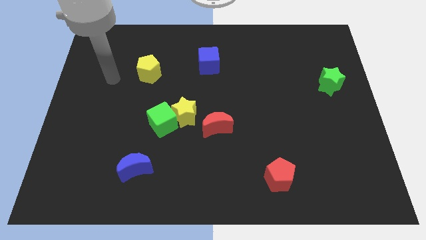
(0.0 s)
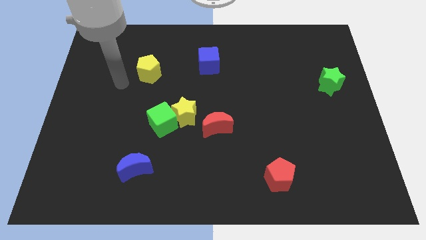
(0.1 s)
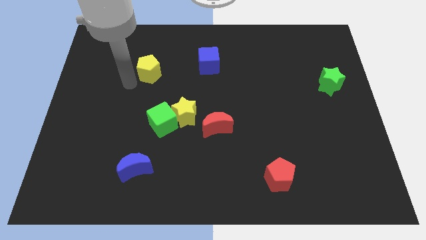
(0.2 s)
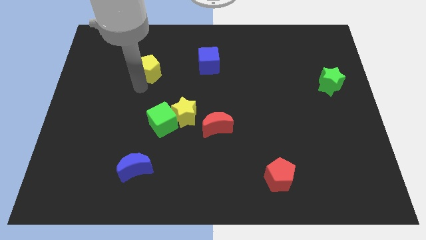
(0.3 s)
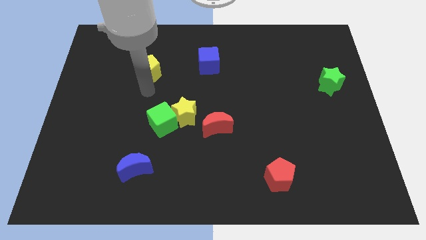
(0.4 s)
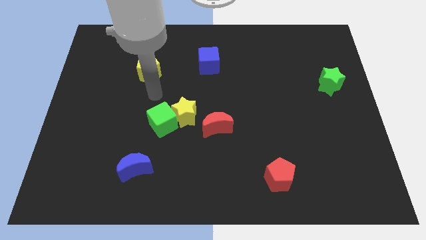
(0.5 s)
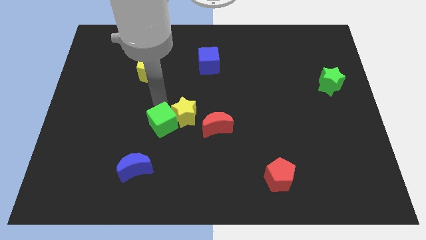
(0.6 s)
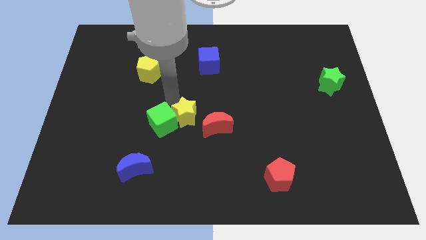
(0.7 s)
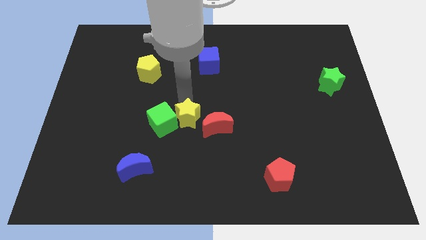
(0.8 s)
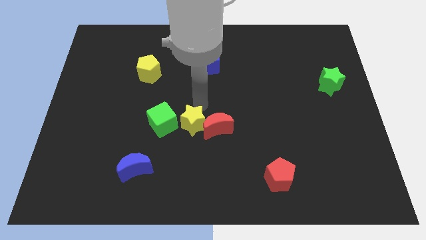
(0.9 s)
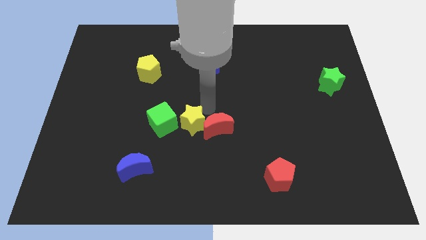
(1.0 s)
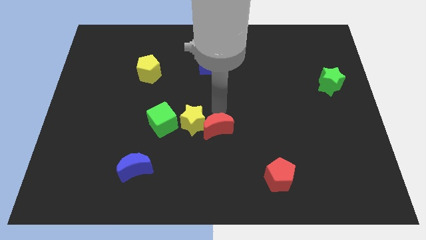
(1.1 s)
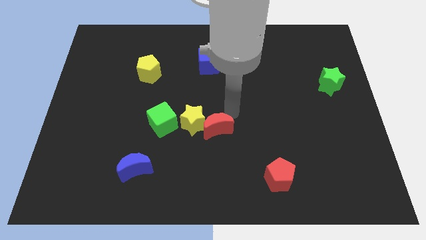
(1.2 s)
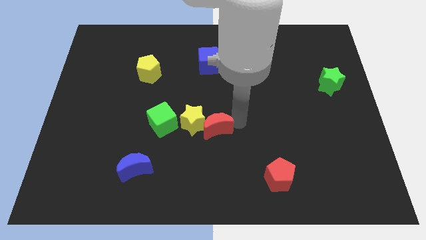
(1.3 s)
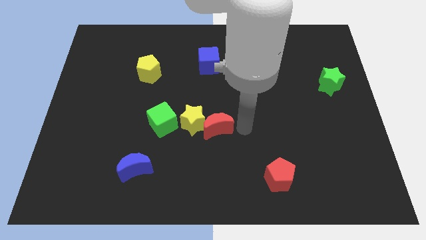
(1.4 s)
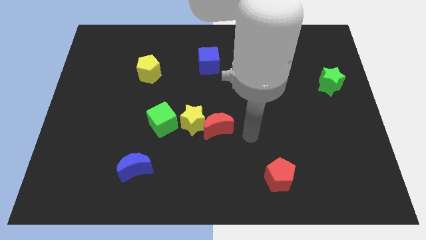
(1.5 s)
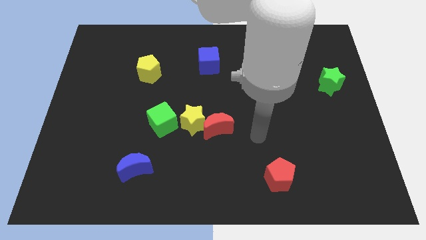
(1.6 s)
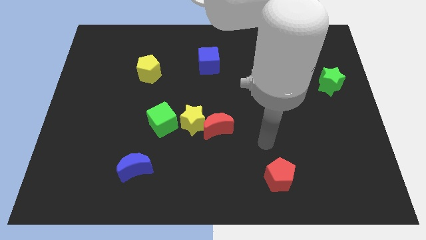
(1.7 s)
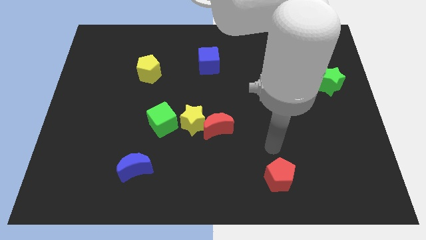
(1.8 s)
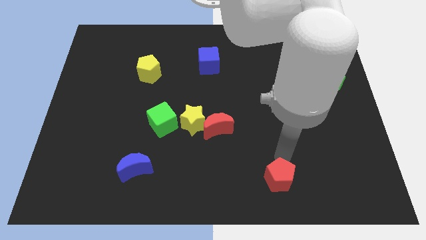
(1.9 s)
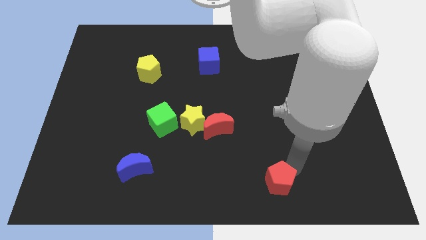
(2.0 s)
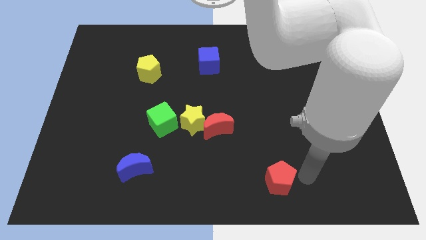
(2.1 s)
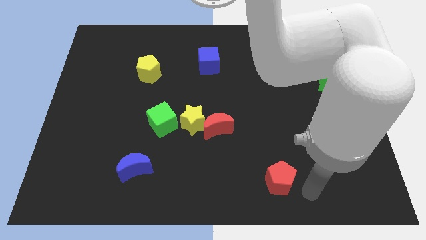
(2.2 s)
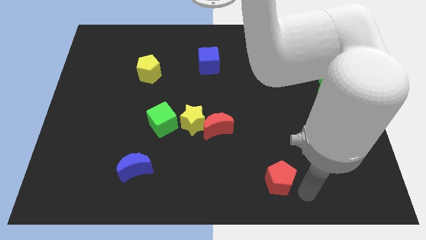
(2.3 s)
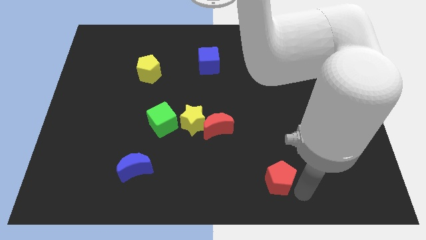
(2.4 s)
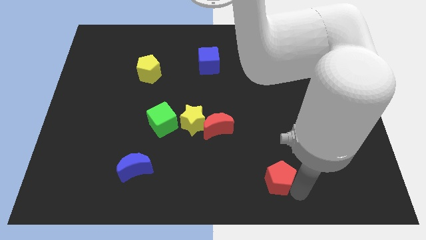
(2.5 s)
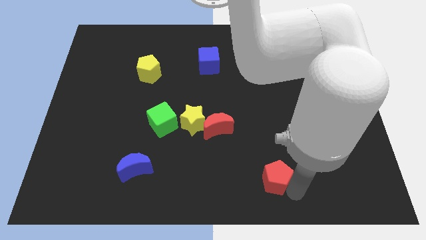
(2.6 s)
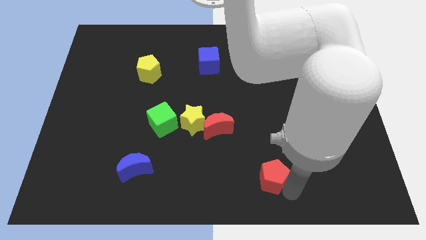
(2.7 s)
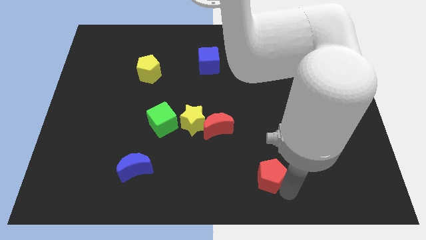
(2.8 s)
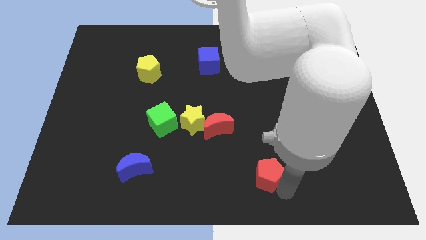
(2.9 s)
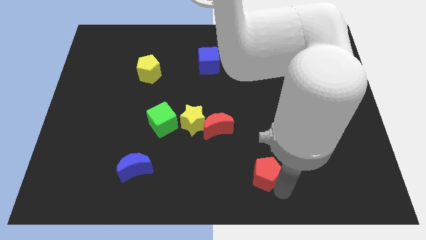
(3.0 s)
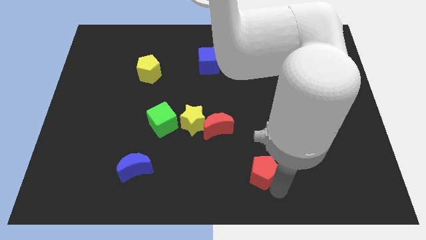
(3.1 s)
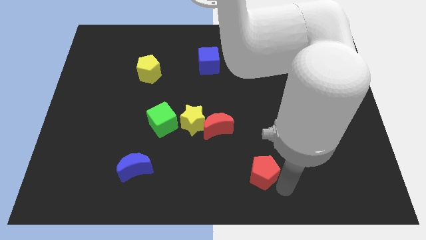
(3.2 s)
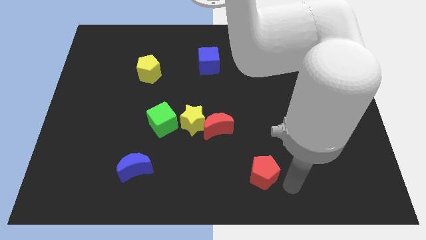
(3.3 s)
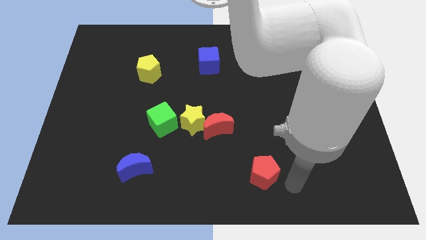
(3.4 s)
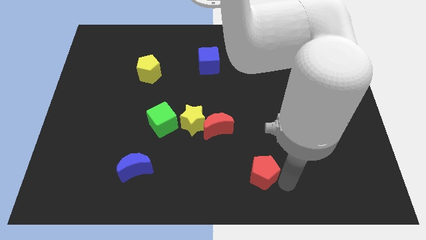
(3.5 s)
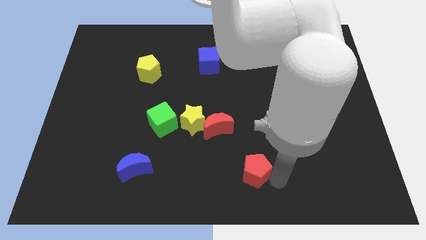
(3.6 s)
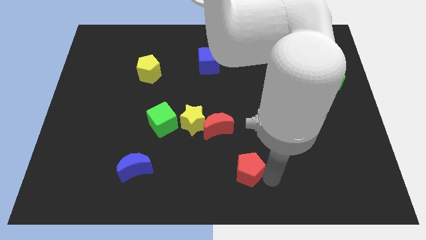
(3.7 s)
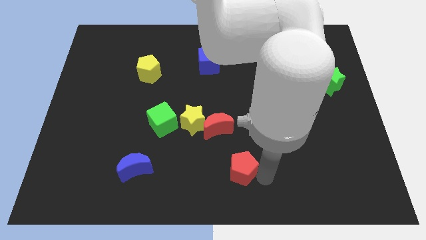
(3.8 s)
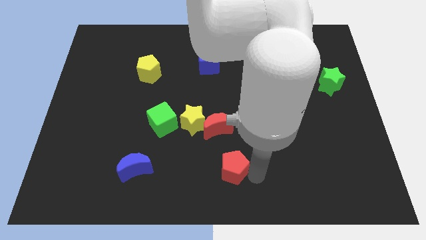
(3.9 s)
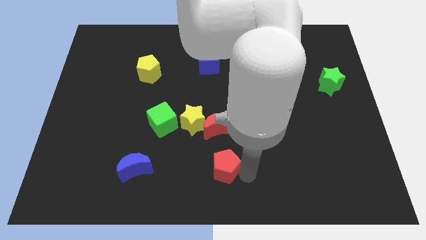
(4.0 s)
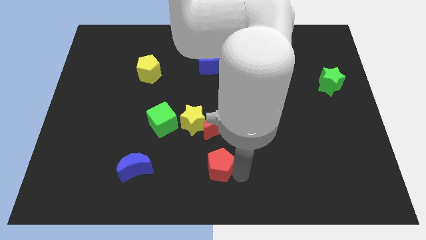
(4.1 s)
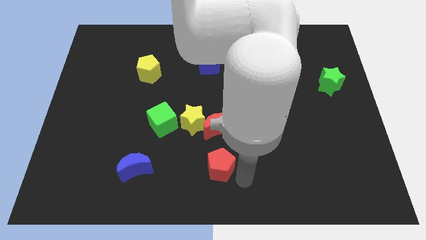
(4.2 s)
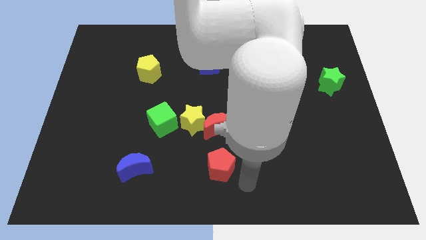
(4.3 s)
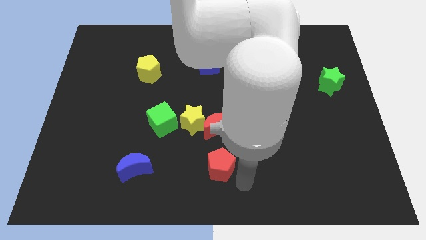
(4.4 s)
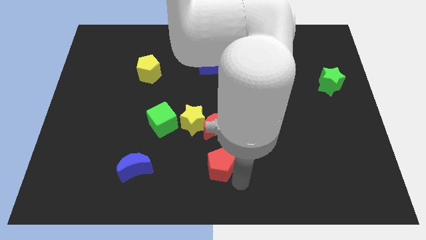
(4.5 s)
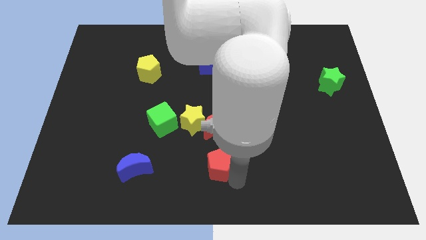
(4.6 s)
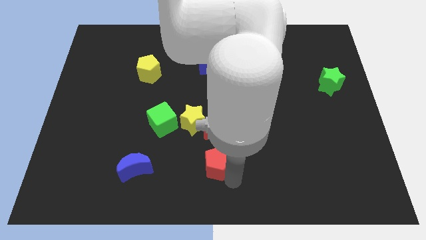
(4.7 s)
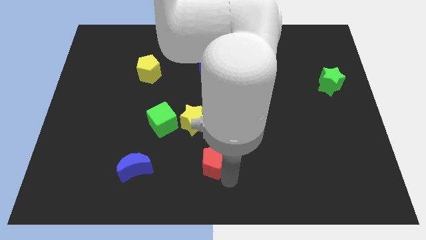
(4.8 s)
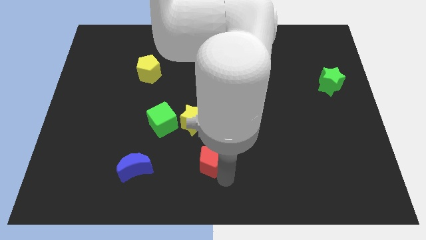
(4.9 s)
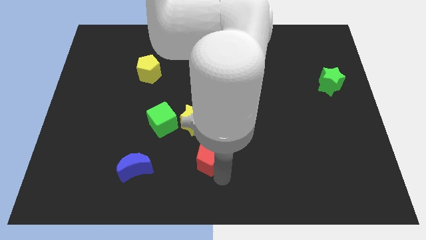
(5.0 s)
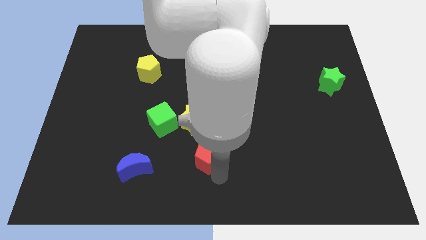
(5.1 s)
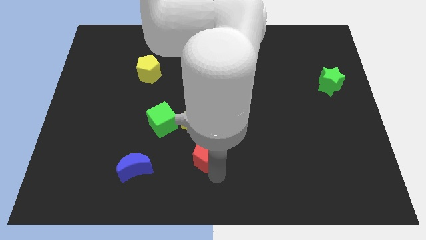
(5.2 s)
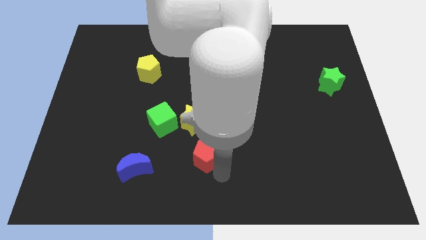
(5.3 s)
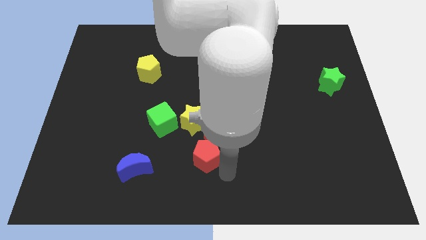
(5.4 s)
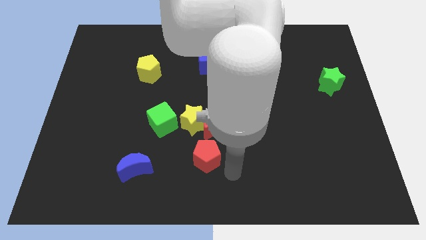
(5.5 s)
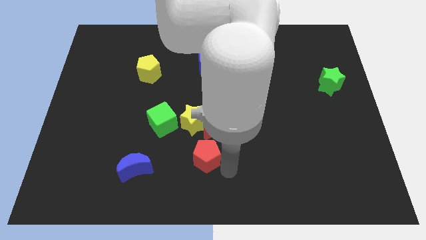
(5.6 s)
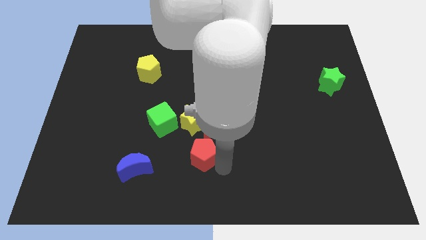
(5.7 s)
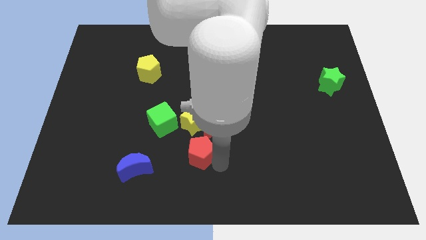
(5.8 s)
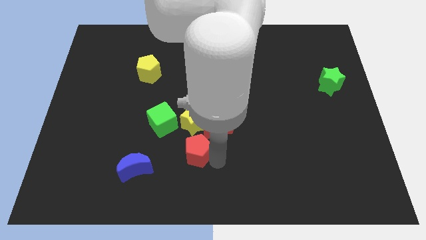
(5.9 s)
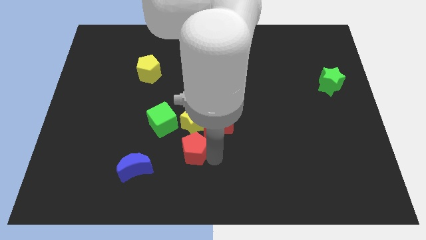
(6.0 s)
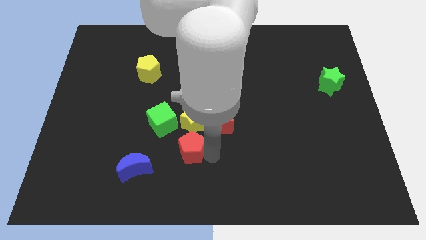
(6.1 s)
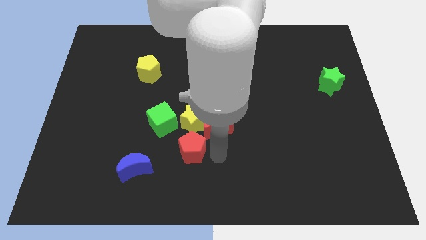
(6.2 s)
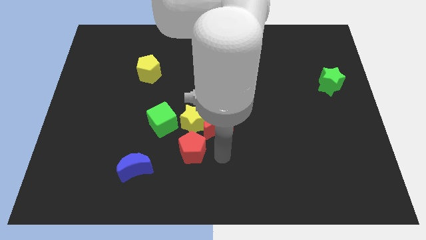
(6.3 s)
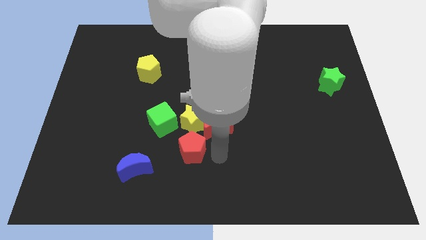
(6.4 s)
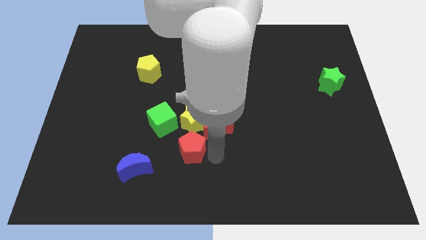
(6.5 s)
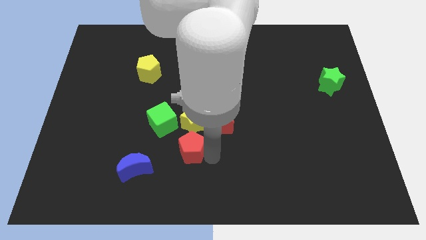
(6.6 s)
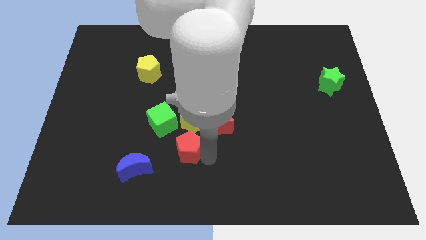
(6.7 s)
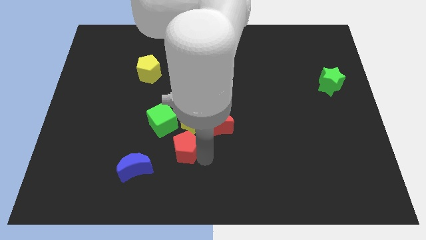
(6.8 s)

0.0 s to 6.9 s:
push the red pentagon to the top right of the blue moon

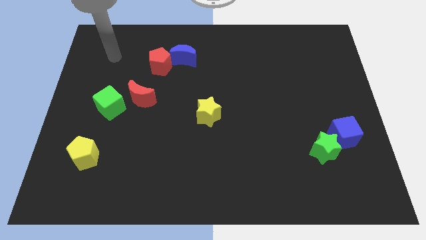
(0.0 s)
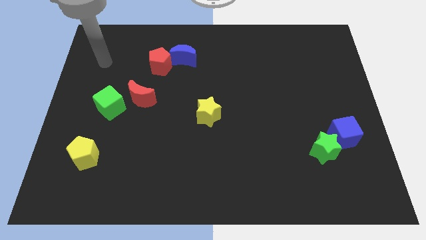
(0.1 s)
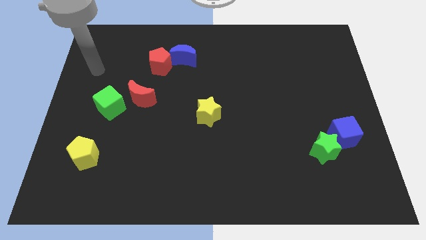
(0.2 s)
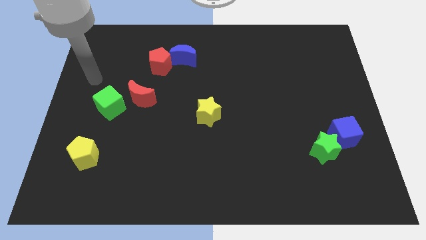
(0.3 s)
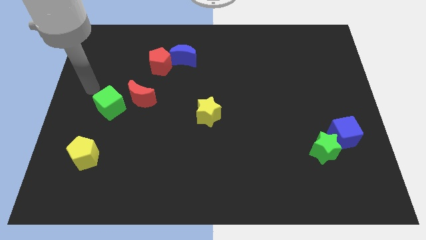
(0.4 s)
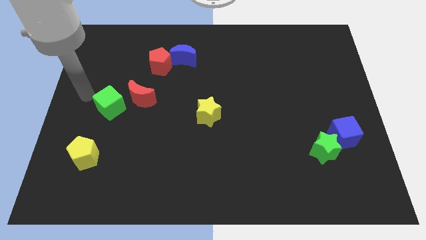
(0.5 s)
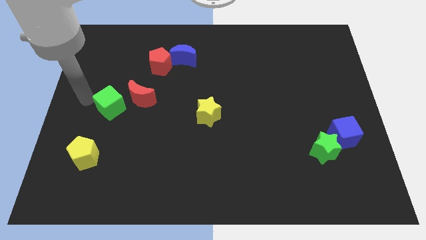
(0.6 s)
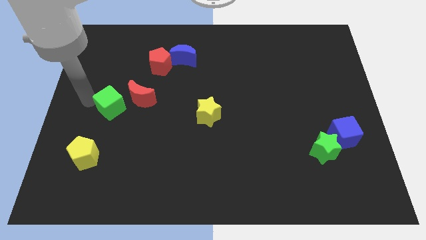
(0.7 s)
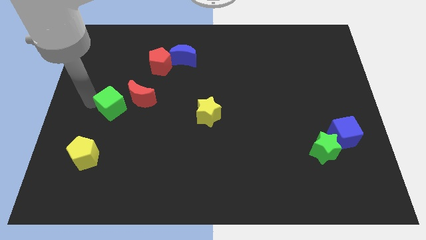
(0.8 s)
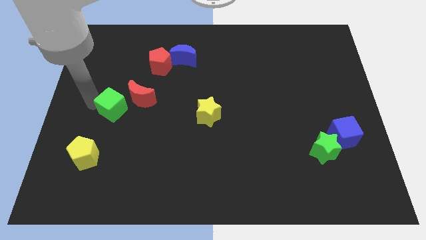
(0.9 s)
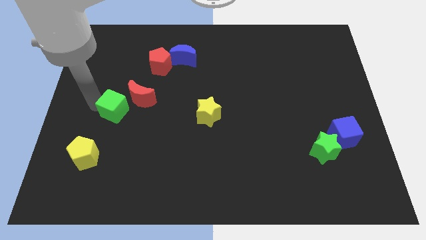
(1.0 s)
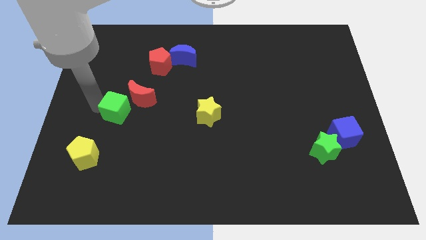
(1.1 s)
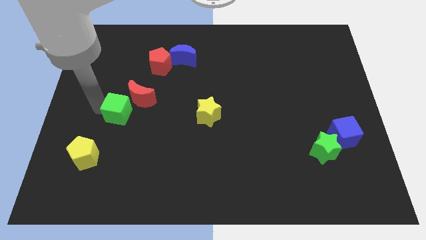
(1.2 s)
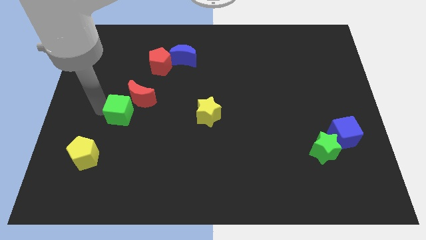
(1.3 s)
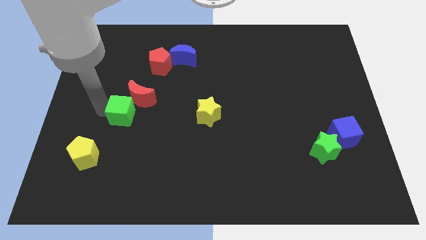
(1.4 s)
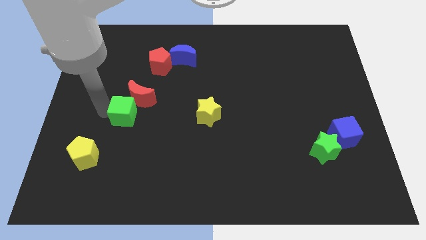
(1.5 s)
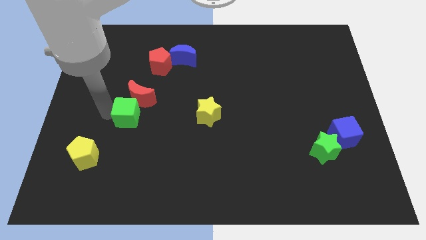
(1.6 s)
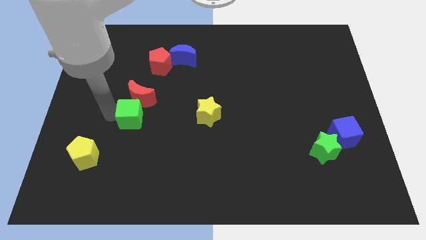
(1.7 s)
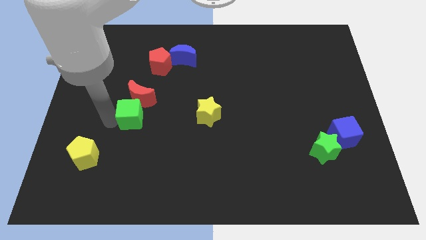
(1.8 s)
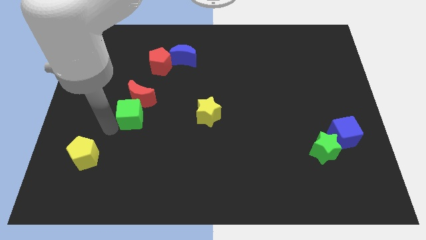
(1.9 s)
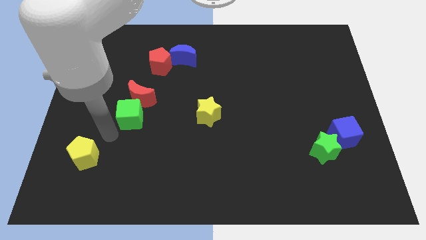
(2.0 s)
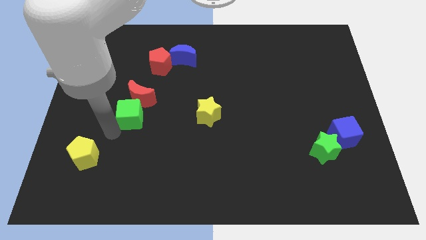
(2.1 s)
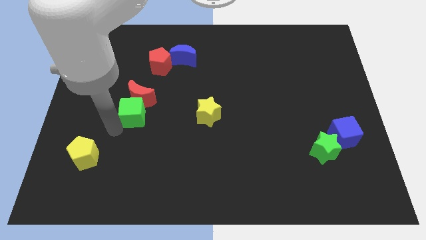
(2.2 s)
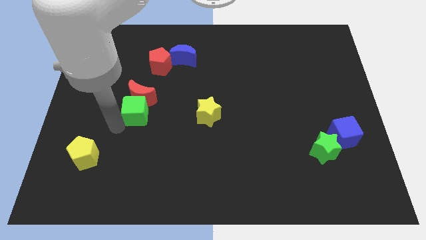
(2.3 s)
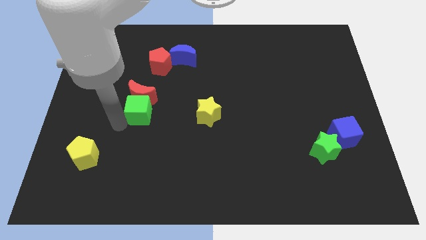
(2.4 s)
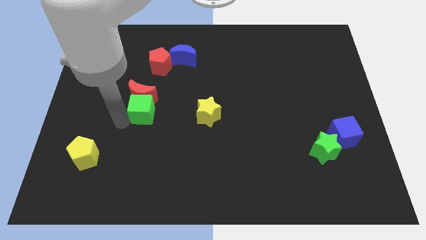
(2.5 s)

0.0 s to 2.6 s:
put the green cube to the bottom side of the red pentagon
